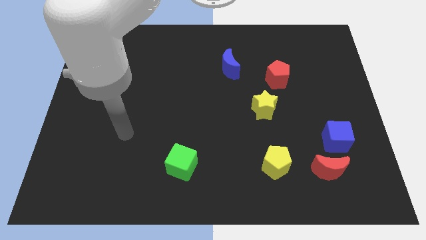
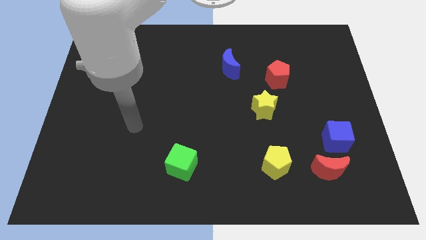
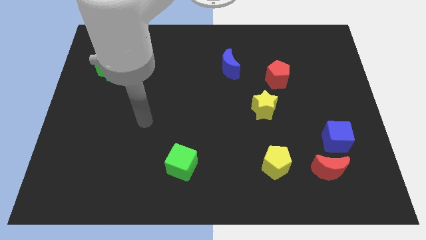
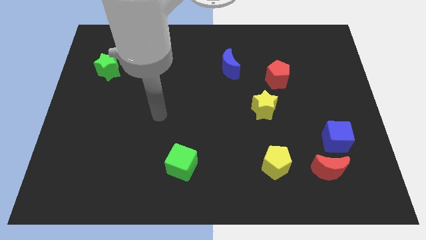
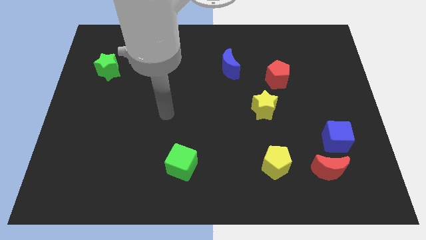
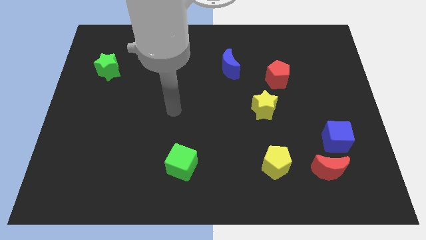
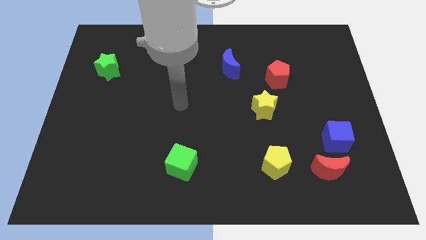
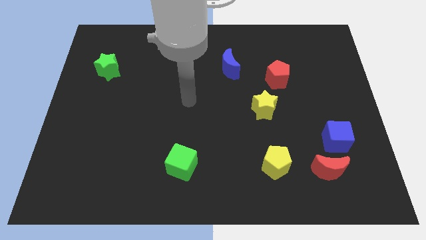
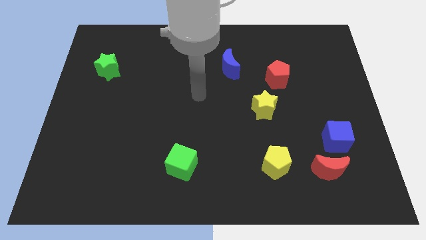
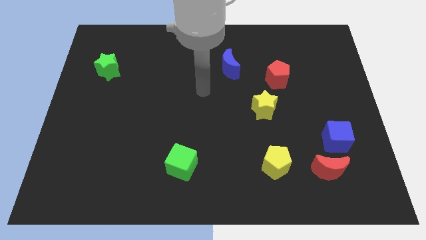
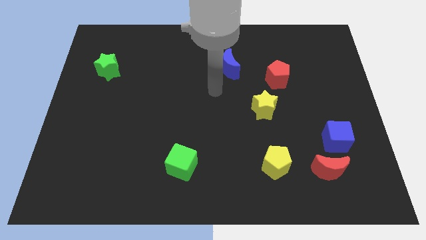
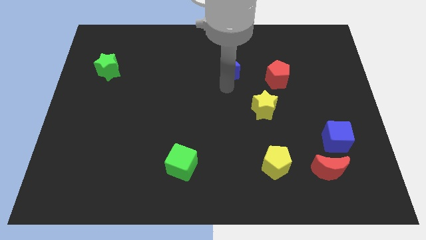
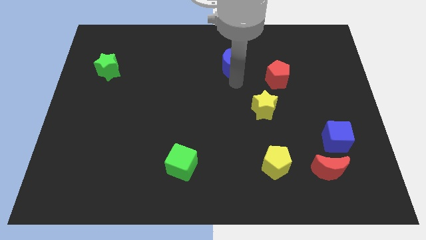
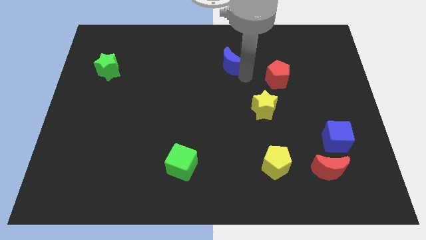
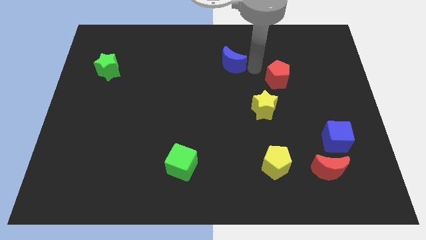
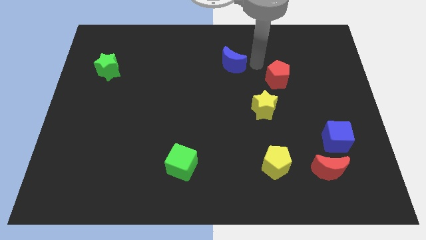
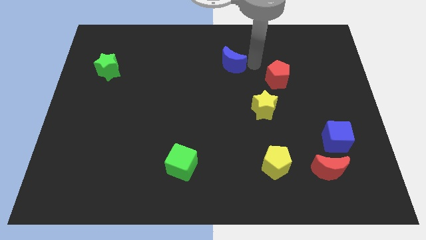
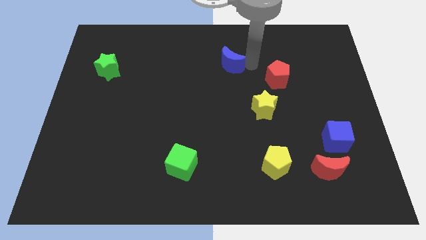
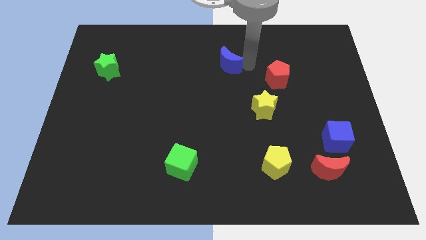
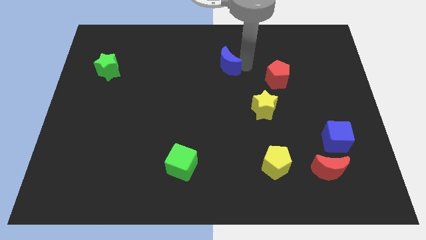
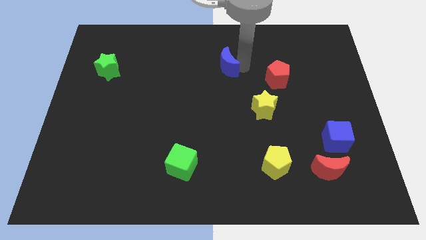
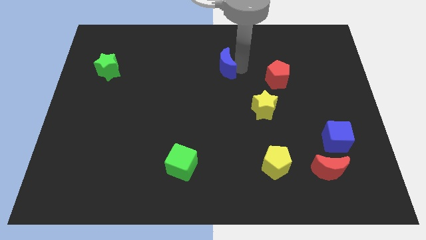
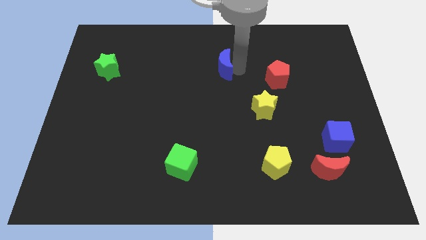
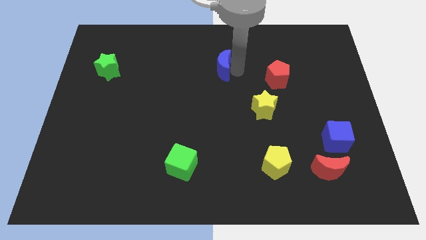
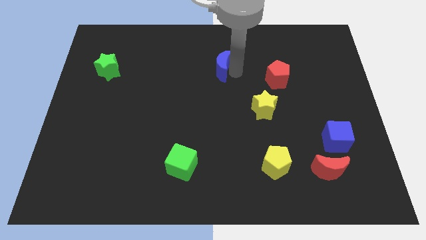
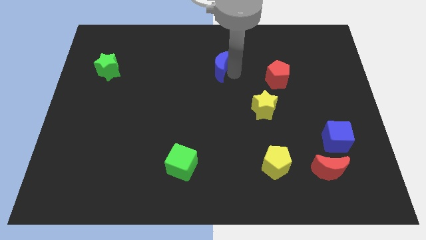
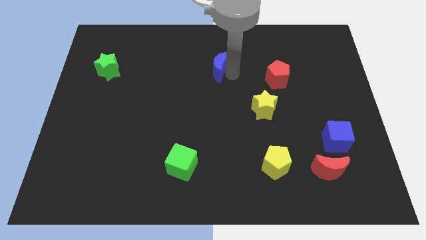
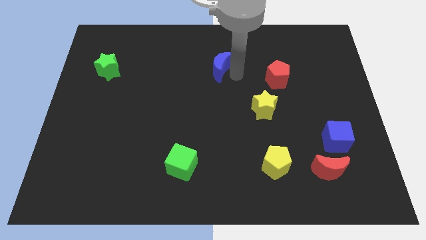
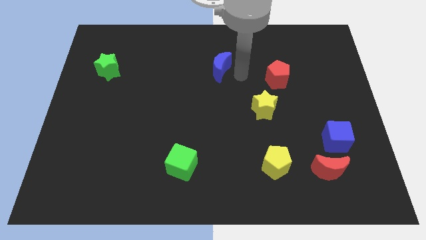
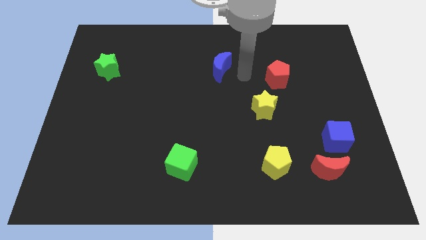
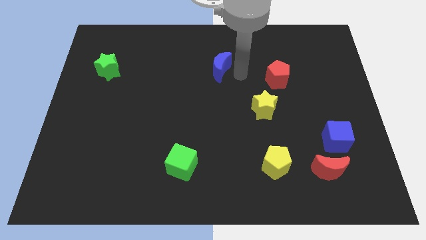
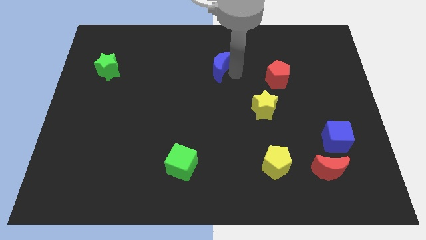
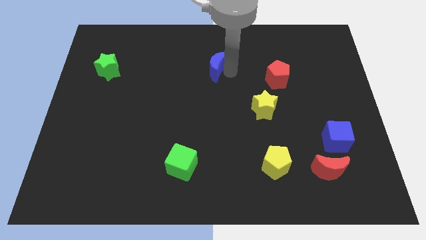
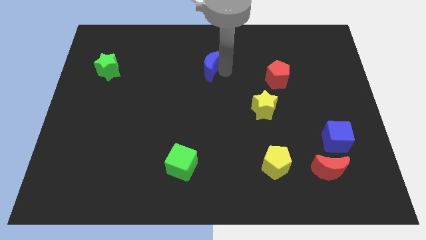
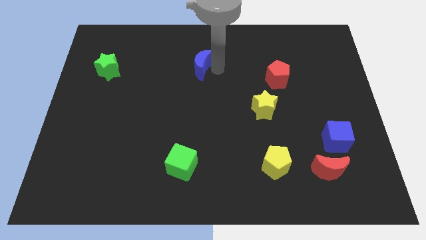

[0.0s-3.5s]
slightly slide the blue moon left

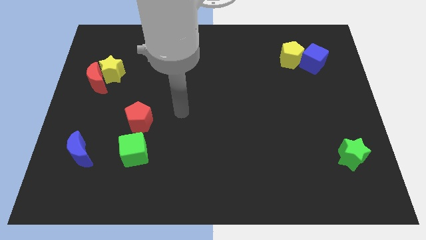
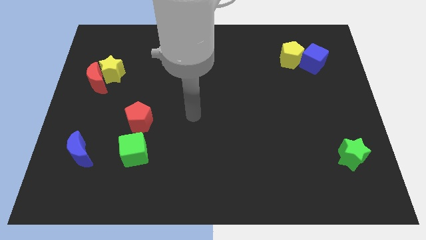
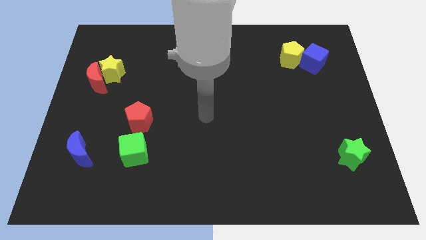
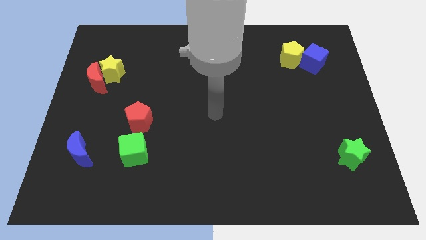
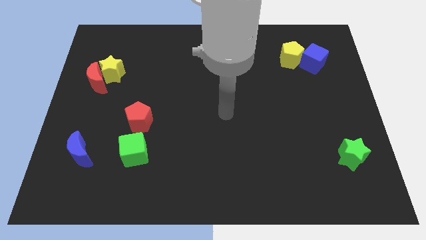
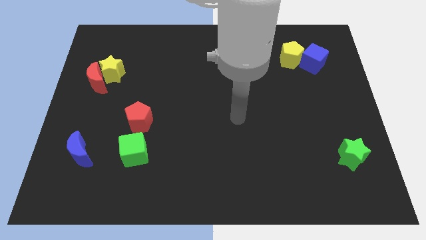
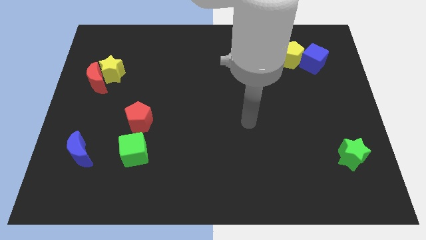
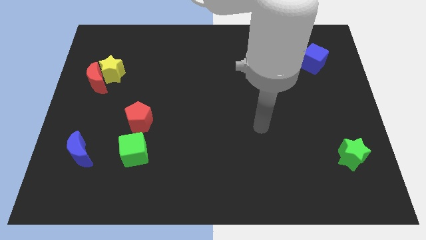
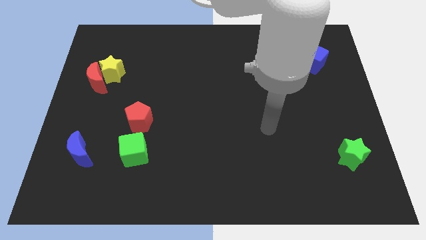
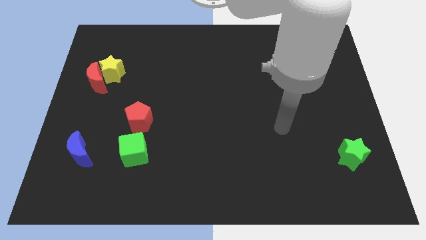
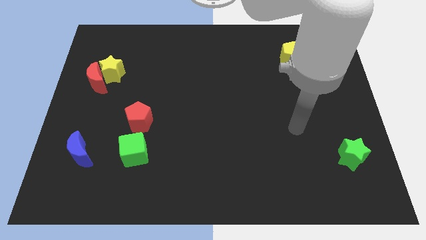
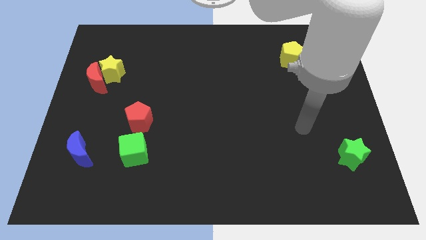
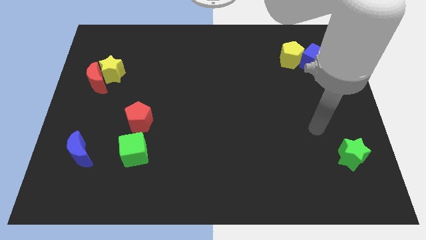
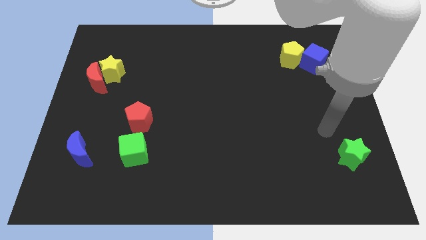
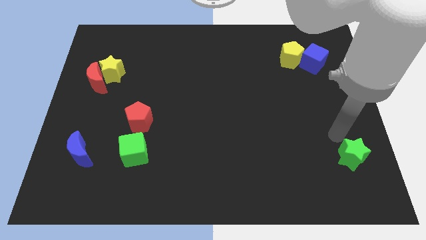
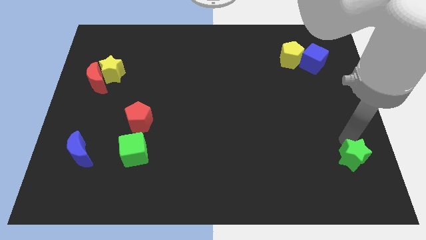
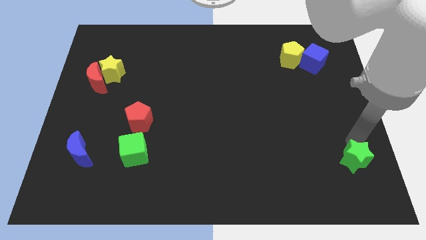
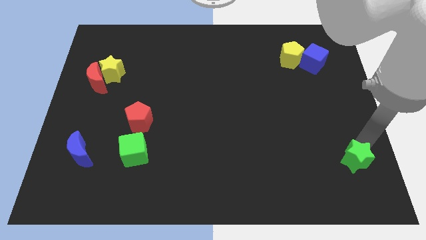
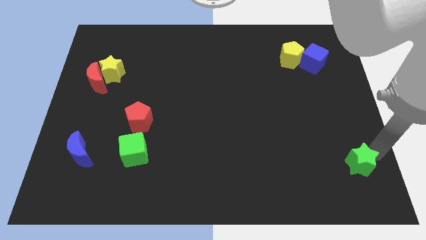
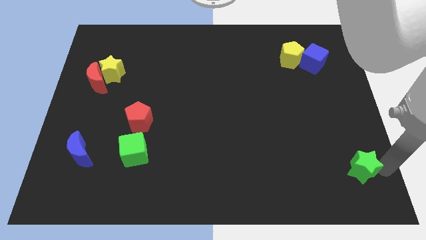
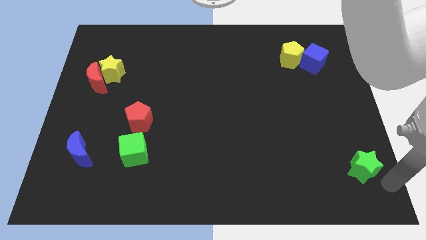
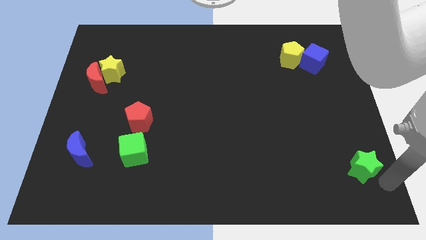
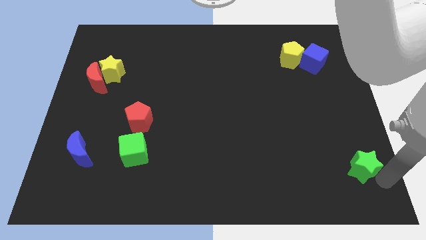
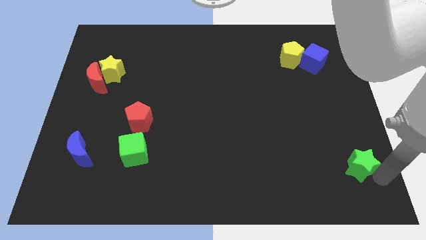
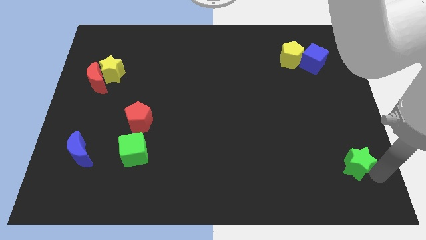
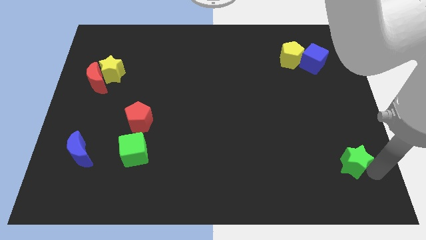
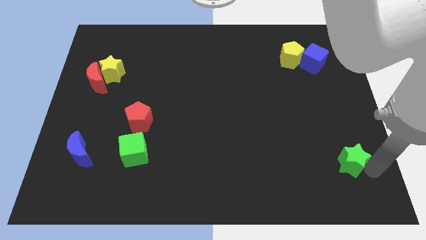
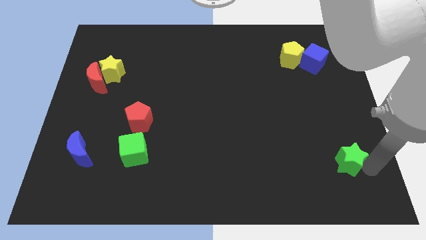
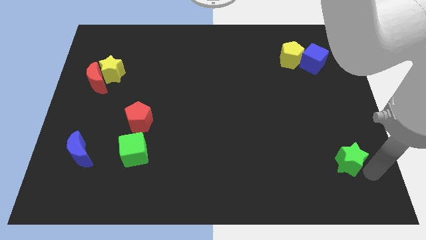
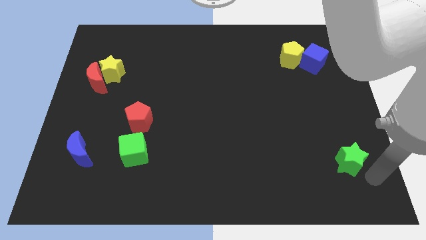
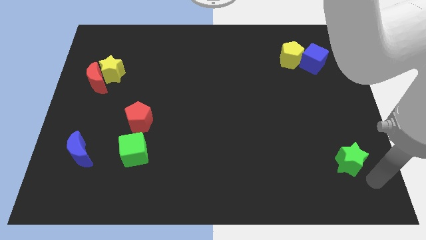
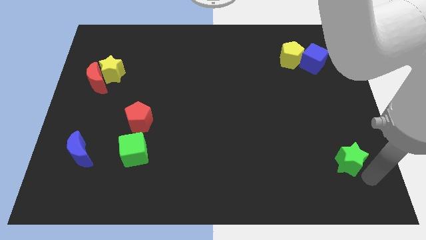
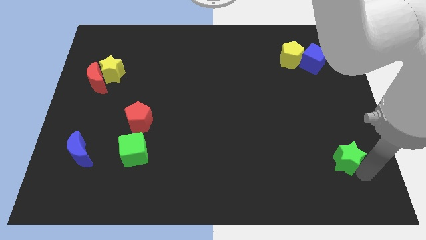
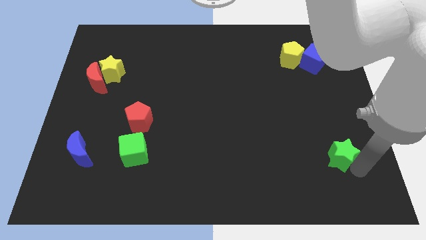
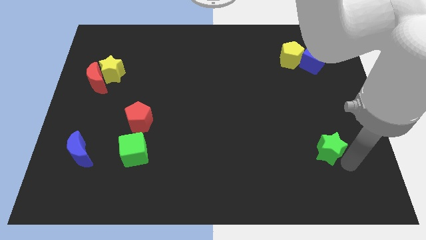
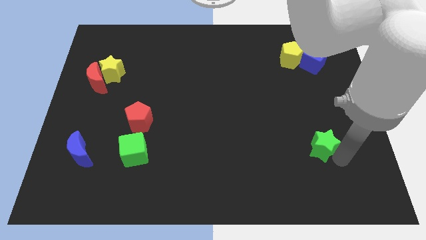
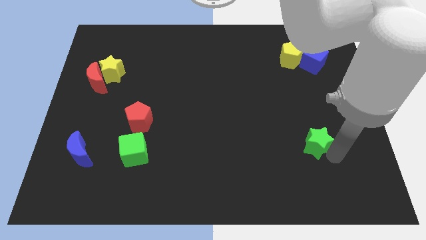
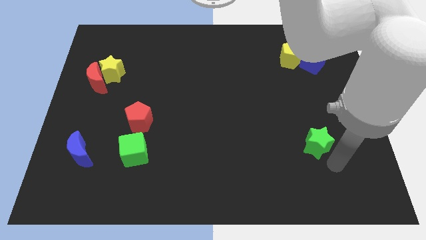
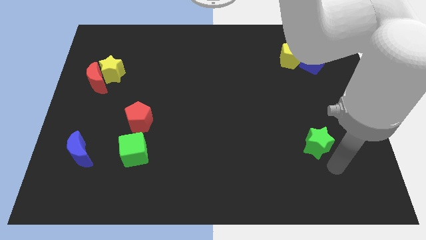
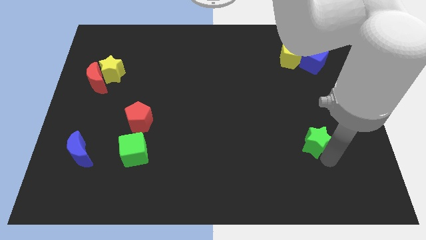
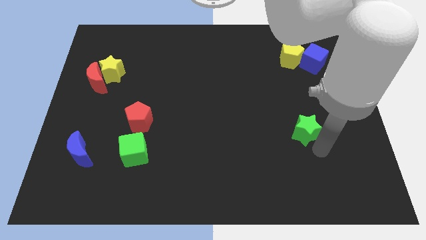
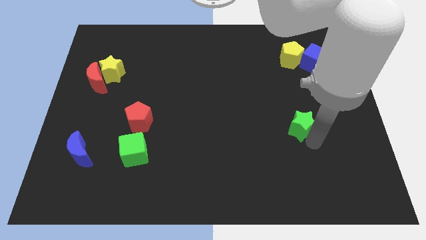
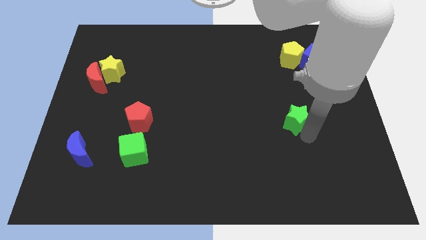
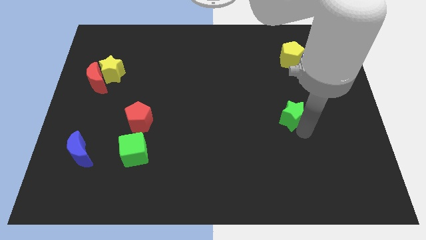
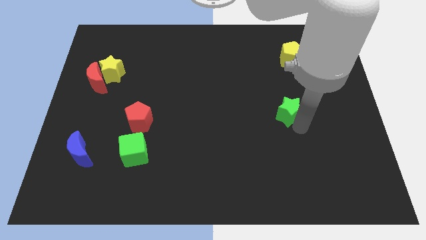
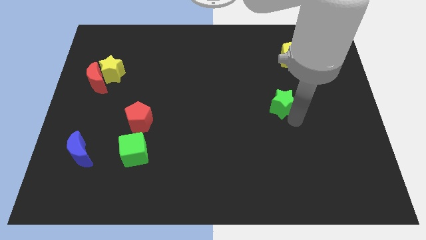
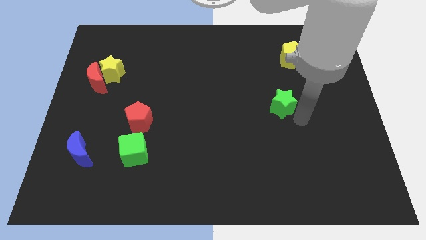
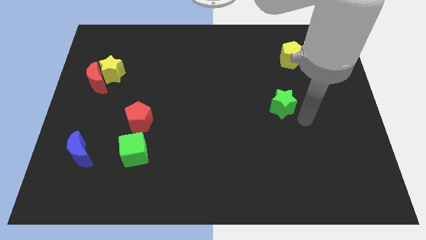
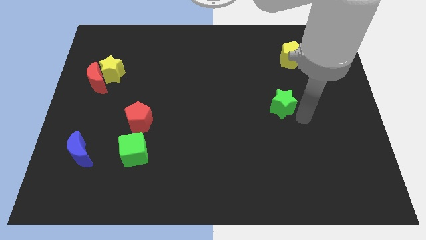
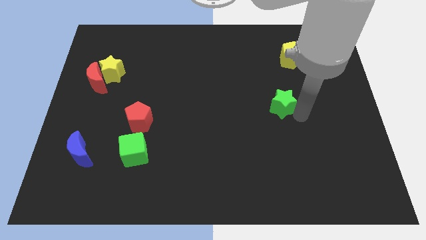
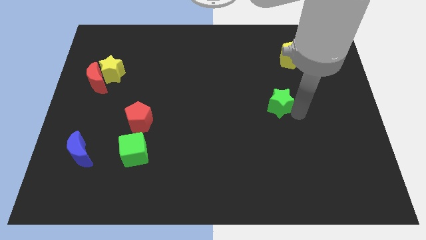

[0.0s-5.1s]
move the green star upwards and then left
